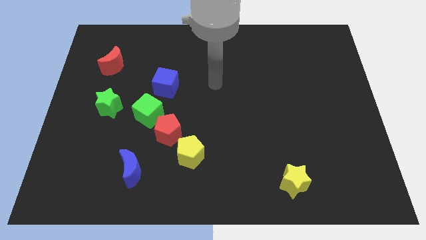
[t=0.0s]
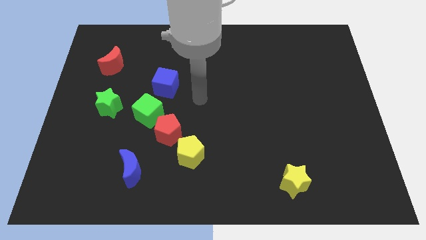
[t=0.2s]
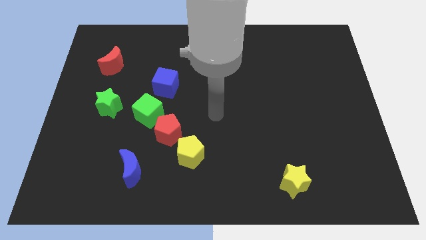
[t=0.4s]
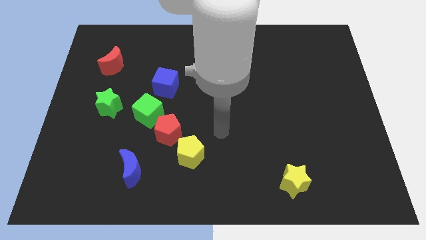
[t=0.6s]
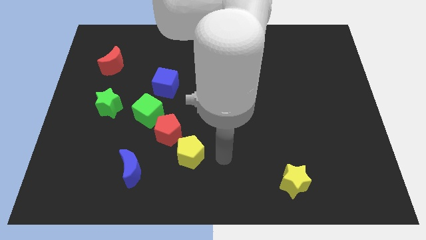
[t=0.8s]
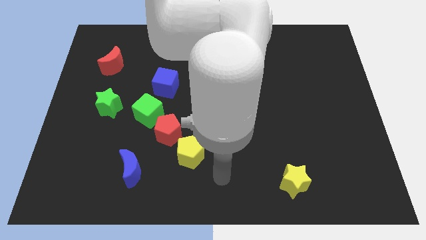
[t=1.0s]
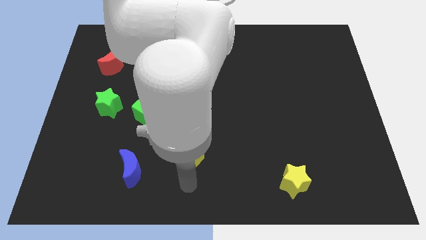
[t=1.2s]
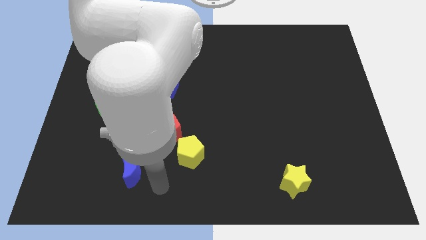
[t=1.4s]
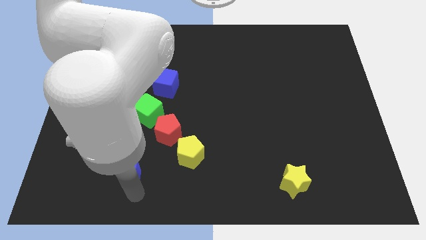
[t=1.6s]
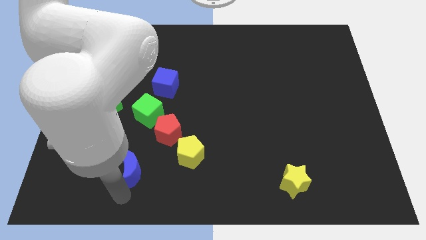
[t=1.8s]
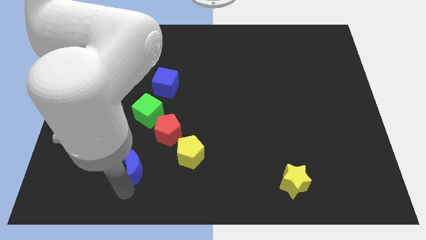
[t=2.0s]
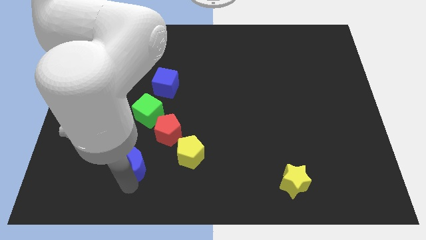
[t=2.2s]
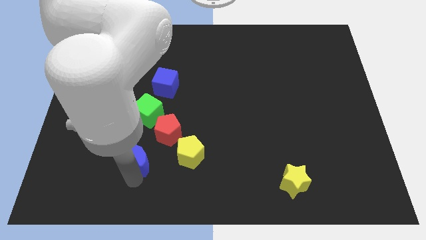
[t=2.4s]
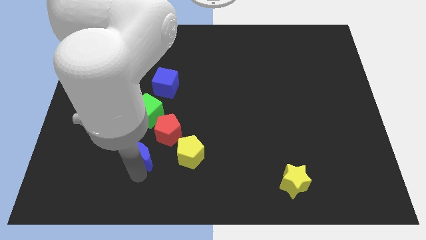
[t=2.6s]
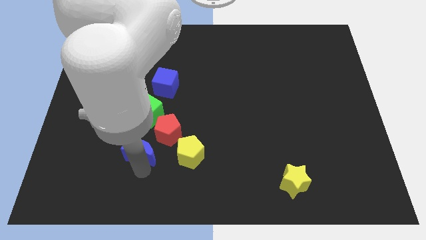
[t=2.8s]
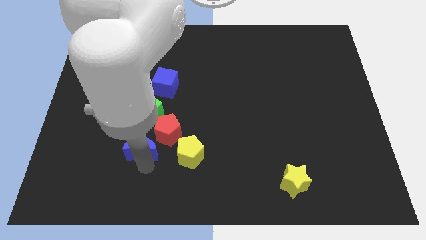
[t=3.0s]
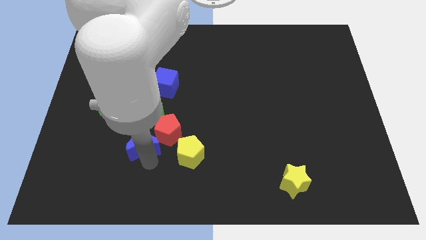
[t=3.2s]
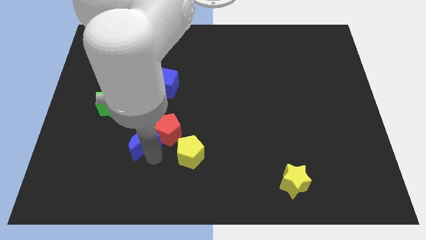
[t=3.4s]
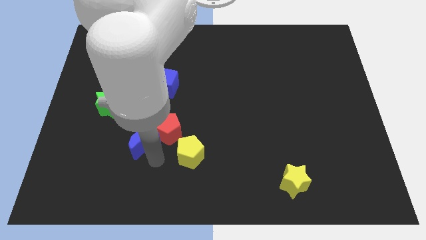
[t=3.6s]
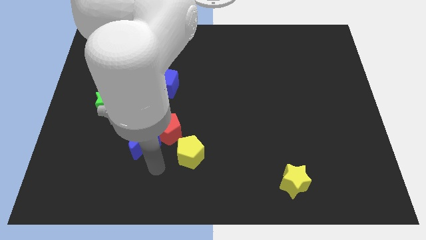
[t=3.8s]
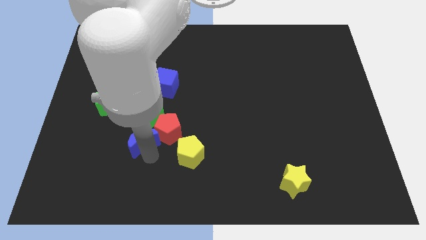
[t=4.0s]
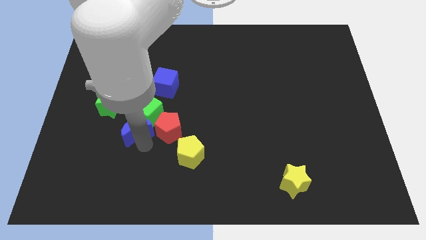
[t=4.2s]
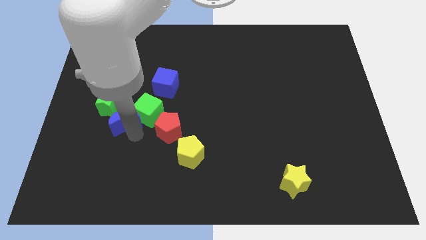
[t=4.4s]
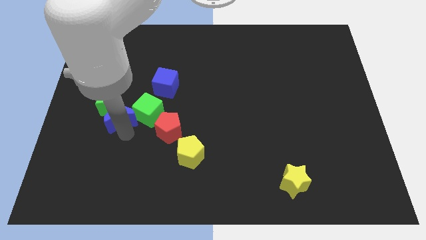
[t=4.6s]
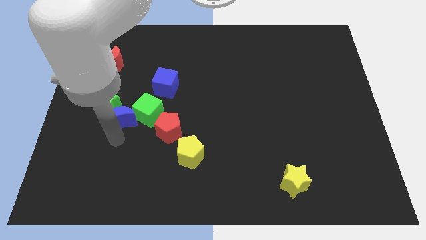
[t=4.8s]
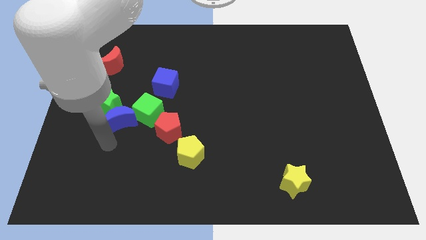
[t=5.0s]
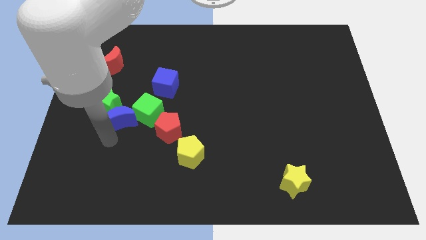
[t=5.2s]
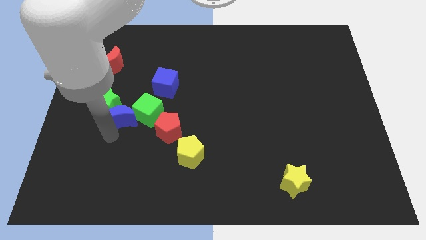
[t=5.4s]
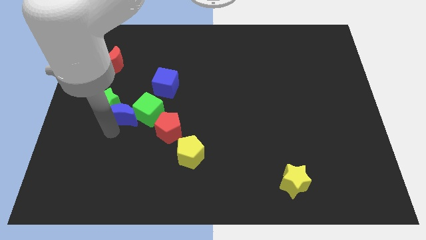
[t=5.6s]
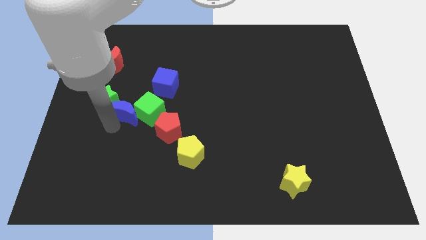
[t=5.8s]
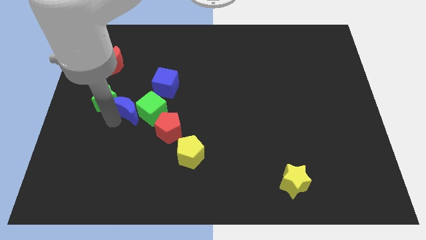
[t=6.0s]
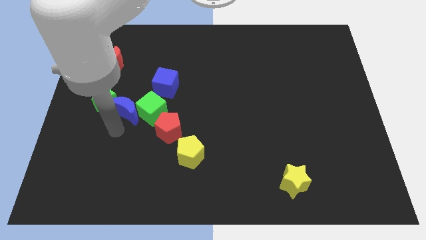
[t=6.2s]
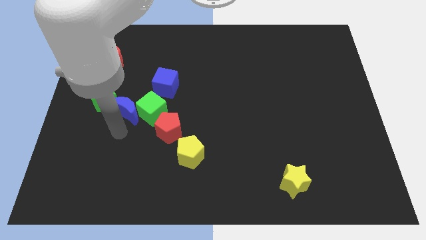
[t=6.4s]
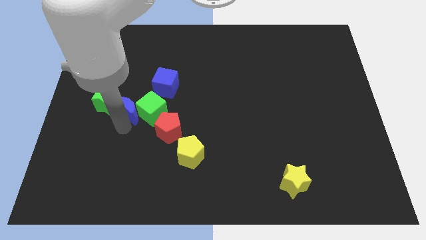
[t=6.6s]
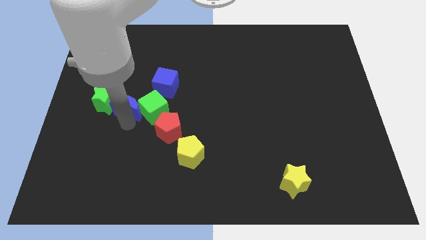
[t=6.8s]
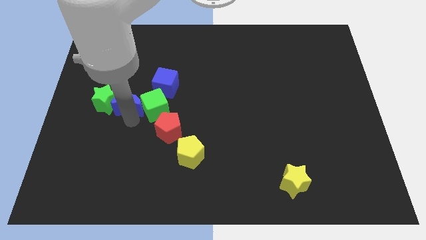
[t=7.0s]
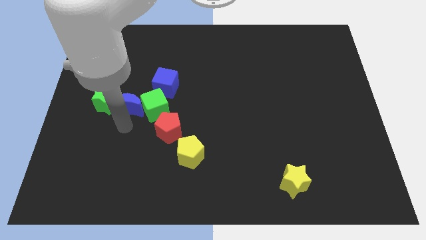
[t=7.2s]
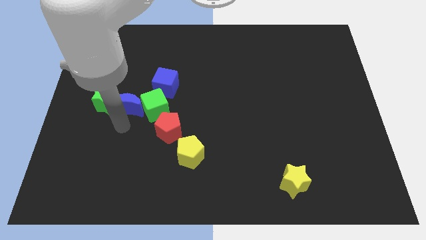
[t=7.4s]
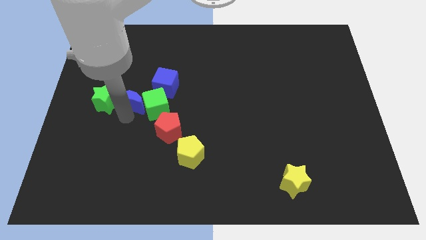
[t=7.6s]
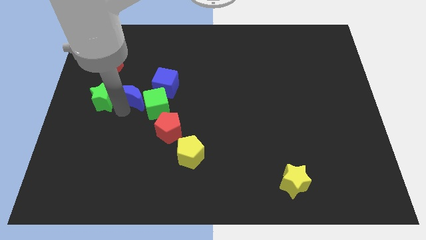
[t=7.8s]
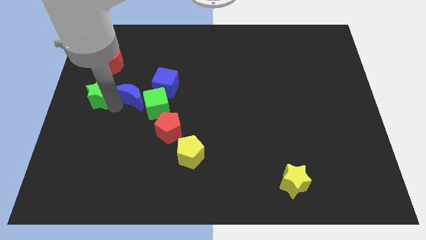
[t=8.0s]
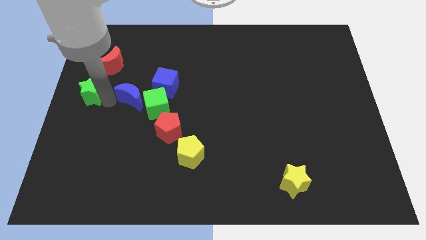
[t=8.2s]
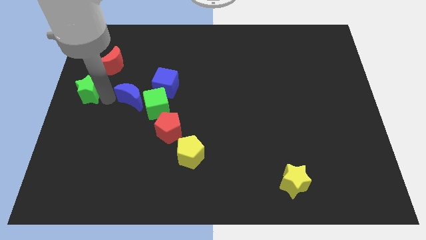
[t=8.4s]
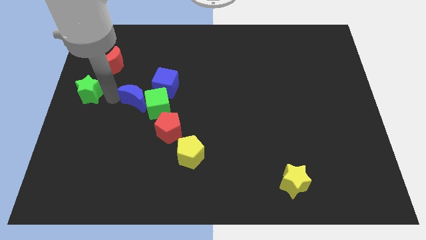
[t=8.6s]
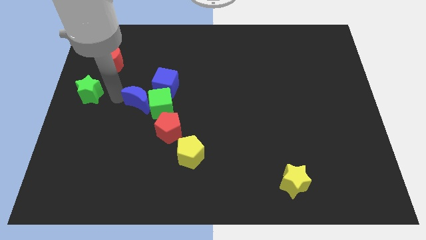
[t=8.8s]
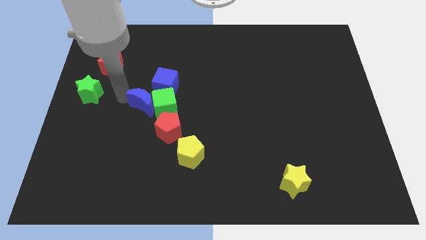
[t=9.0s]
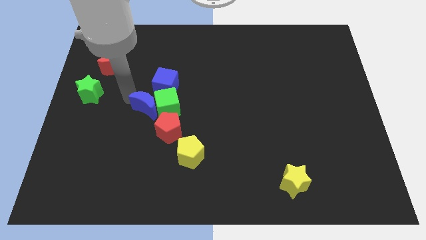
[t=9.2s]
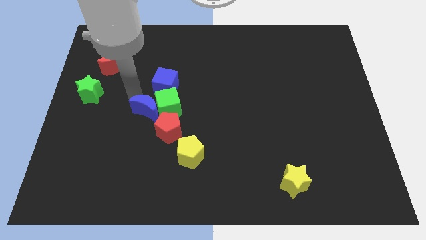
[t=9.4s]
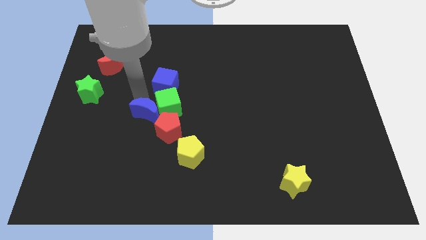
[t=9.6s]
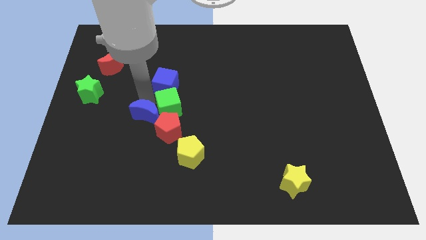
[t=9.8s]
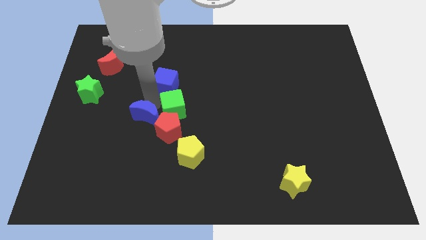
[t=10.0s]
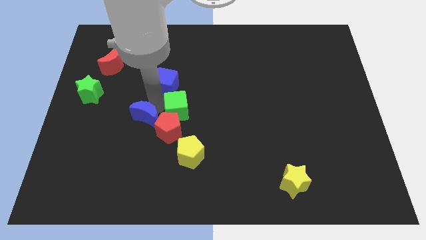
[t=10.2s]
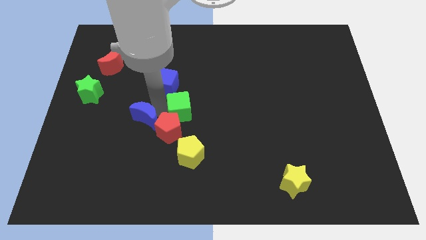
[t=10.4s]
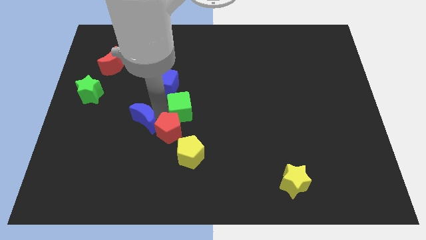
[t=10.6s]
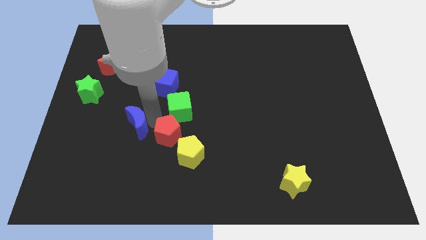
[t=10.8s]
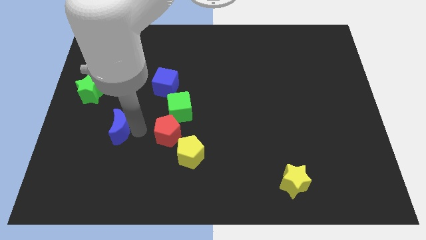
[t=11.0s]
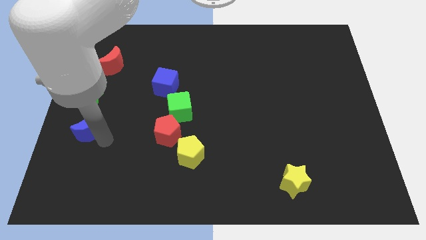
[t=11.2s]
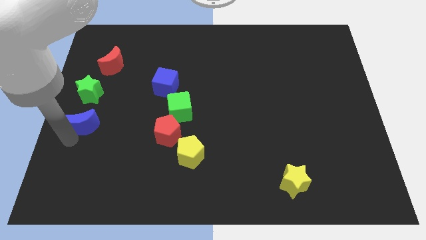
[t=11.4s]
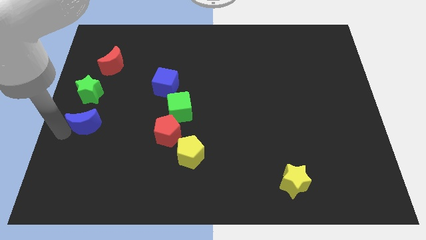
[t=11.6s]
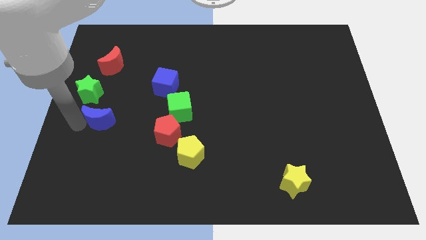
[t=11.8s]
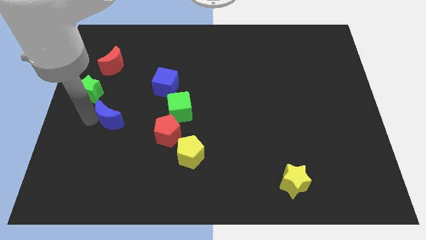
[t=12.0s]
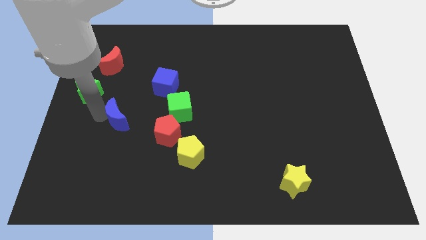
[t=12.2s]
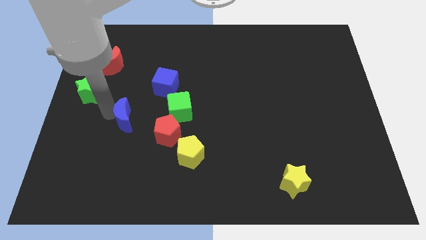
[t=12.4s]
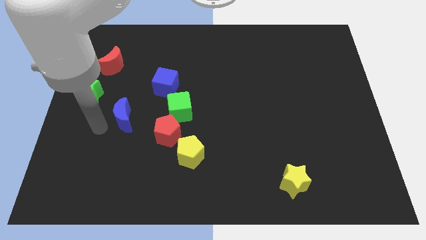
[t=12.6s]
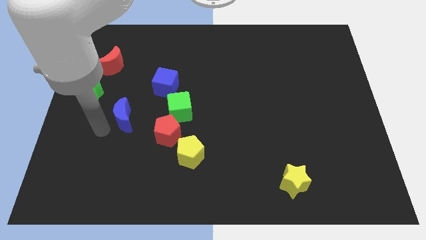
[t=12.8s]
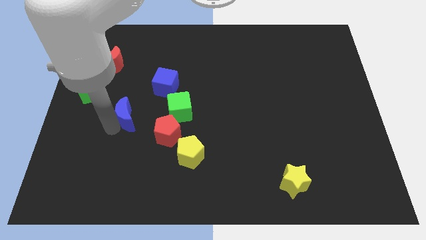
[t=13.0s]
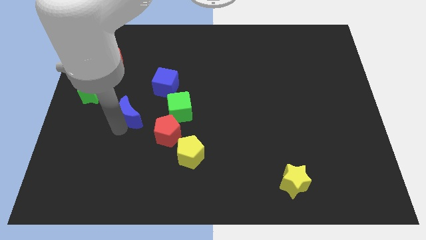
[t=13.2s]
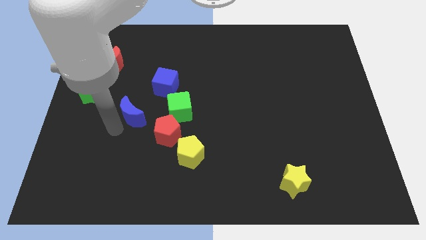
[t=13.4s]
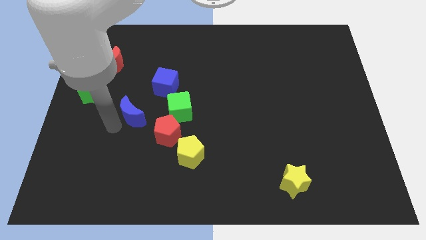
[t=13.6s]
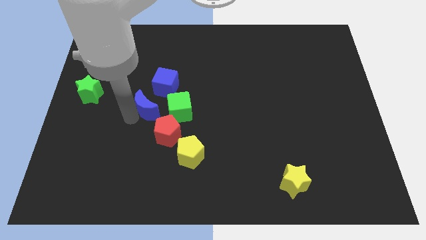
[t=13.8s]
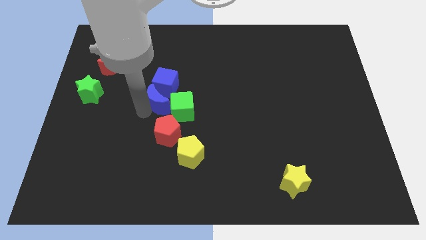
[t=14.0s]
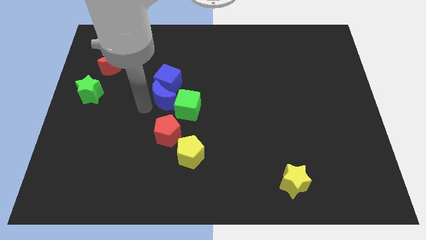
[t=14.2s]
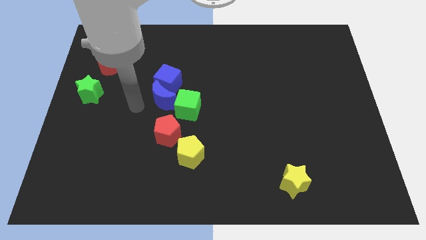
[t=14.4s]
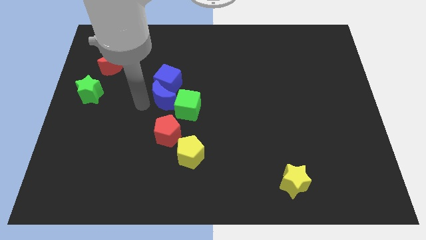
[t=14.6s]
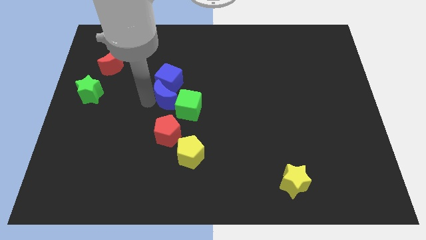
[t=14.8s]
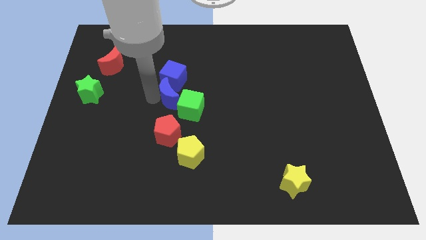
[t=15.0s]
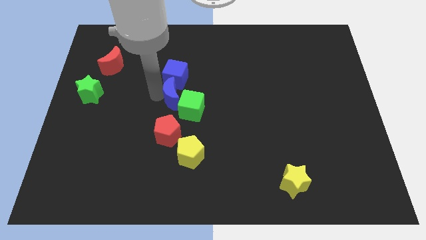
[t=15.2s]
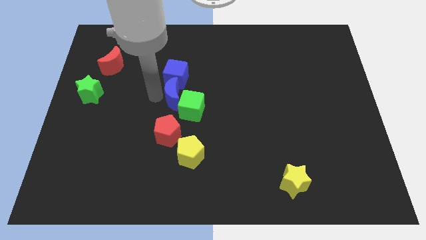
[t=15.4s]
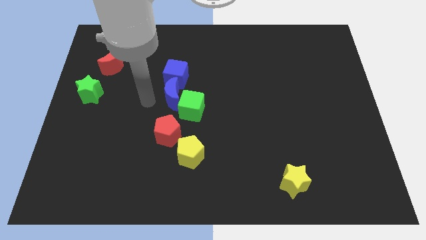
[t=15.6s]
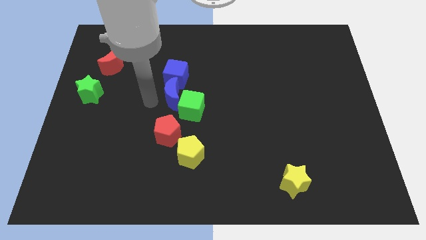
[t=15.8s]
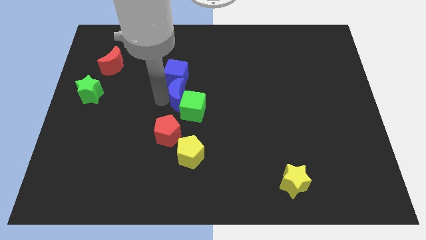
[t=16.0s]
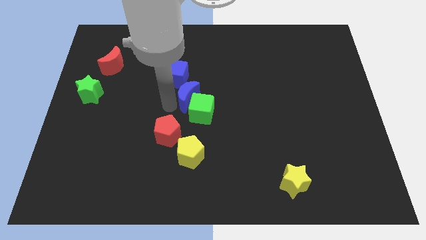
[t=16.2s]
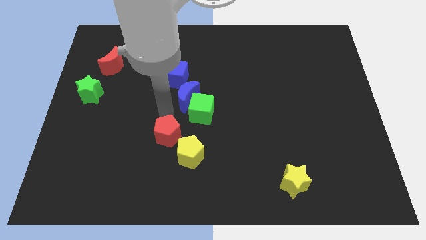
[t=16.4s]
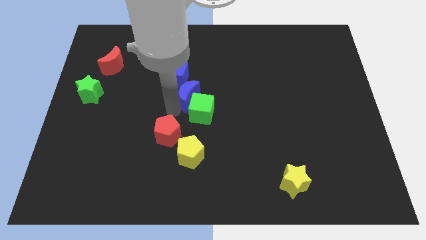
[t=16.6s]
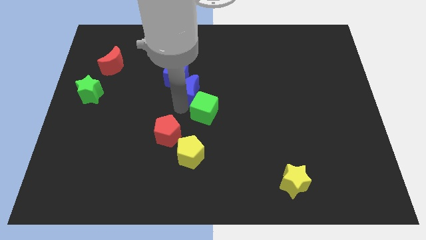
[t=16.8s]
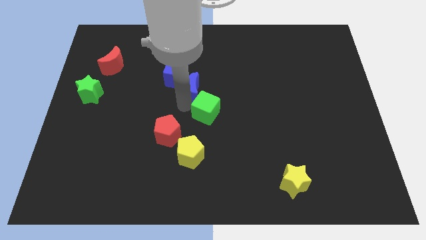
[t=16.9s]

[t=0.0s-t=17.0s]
move the blue moon right of the blue cube
